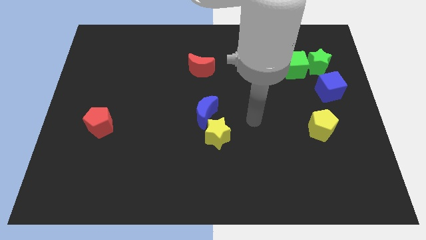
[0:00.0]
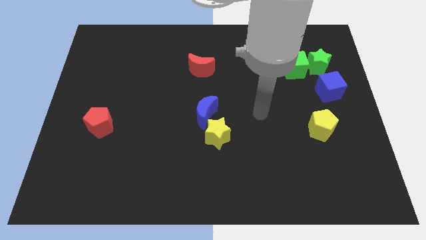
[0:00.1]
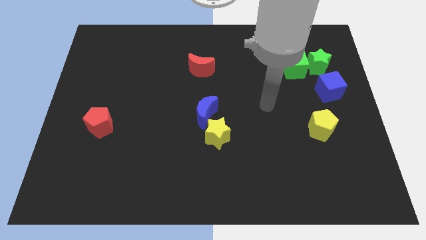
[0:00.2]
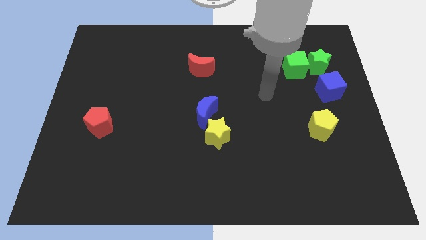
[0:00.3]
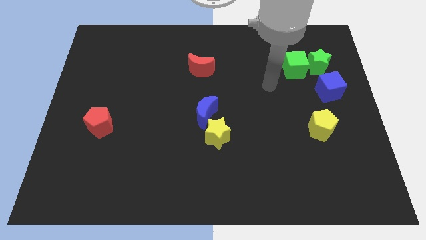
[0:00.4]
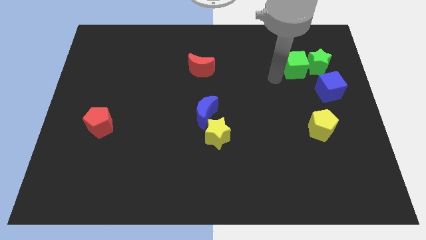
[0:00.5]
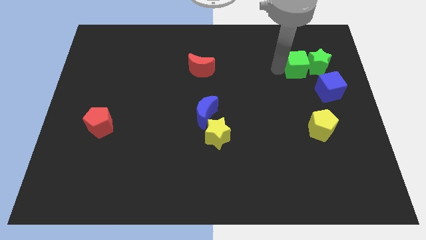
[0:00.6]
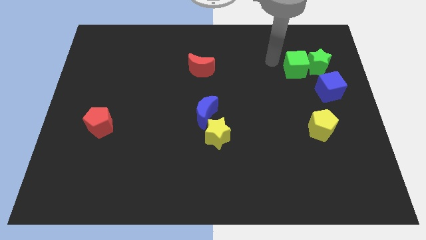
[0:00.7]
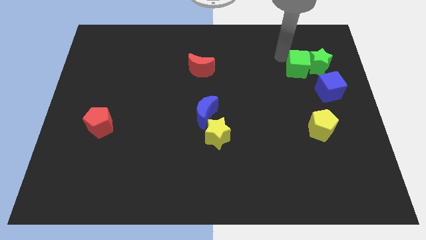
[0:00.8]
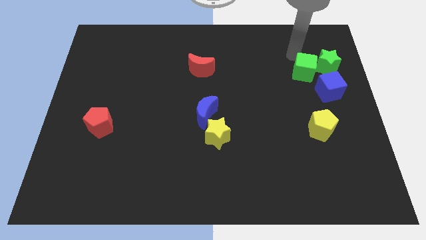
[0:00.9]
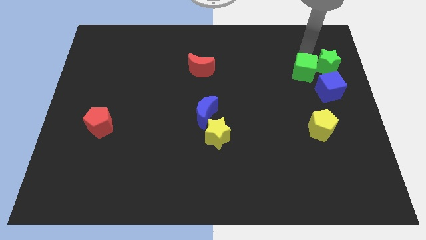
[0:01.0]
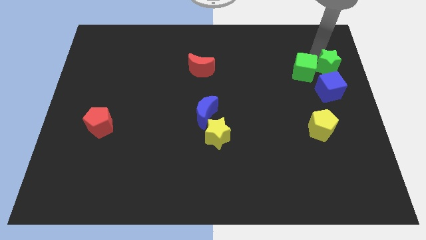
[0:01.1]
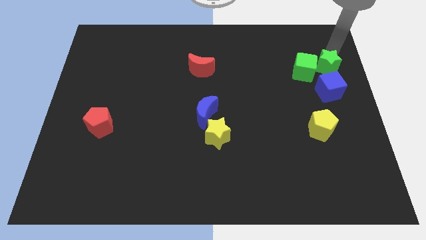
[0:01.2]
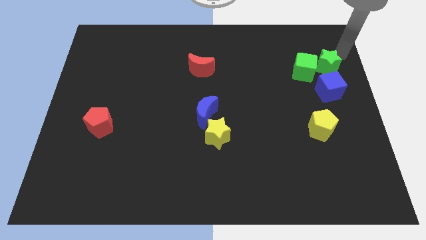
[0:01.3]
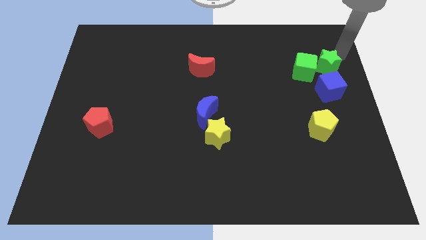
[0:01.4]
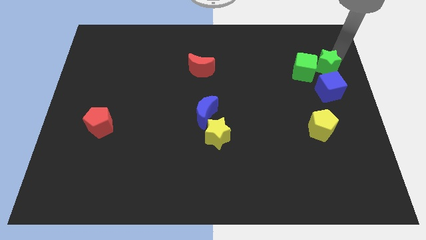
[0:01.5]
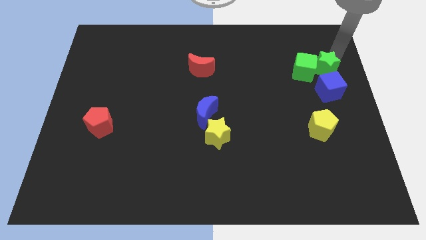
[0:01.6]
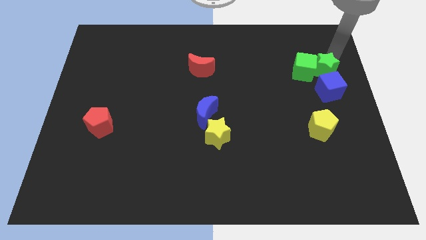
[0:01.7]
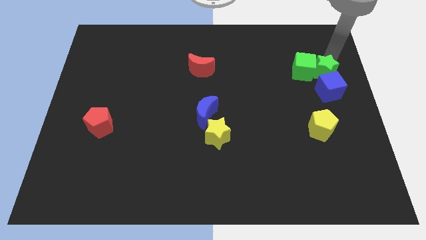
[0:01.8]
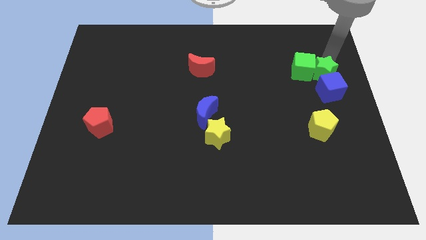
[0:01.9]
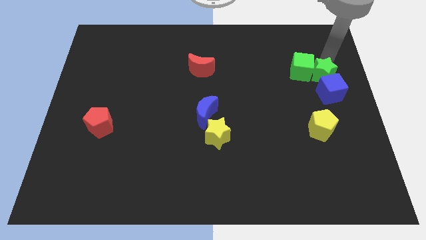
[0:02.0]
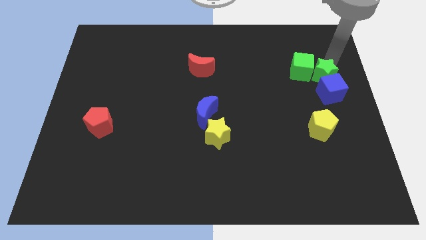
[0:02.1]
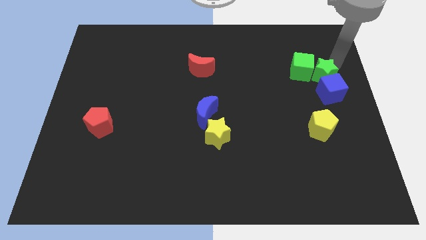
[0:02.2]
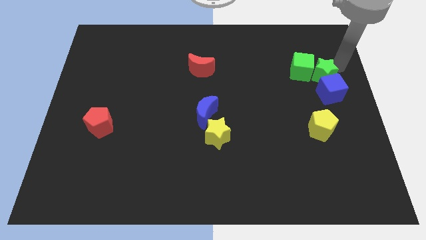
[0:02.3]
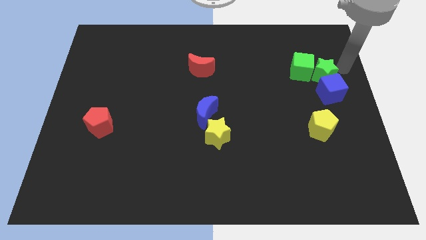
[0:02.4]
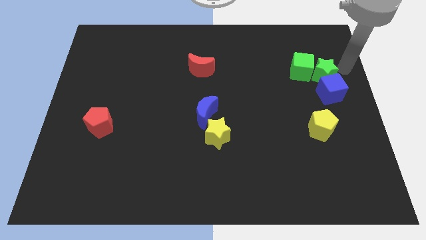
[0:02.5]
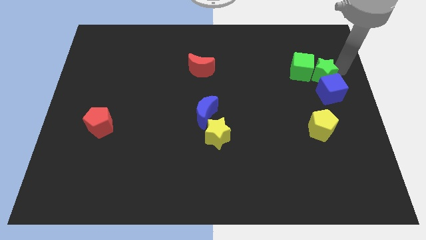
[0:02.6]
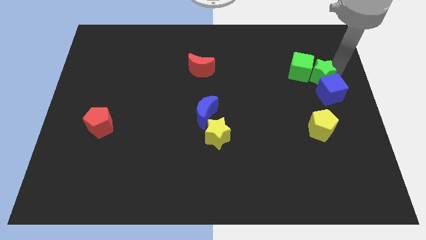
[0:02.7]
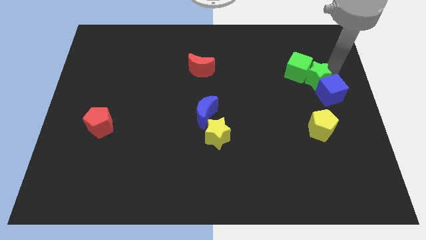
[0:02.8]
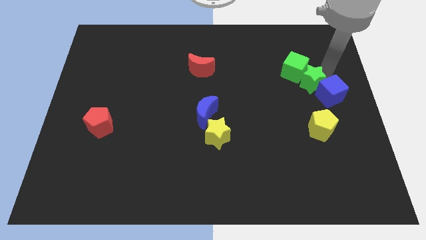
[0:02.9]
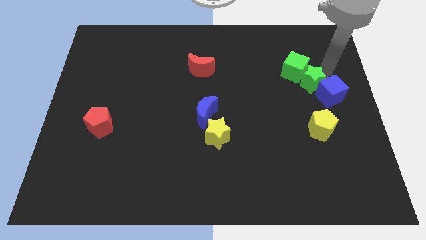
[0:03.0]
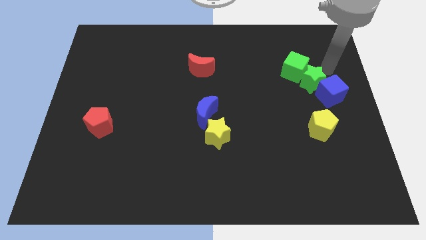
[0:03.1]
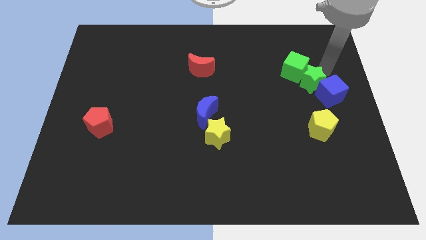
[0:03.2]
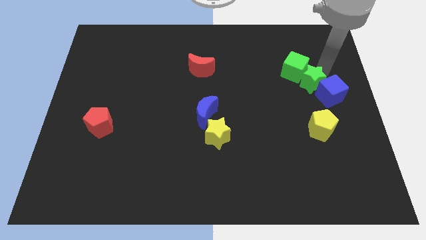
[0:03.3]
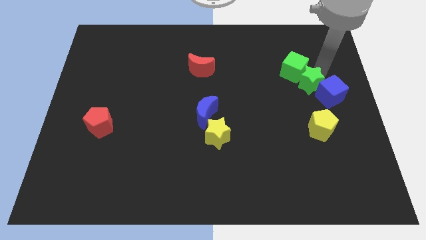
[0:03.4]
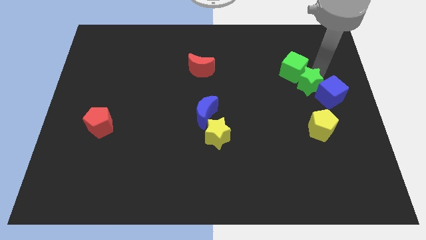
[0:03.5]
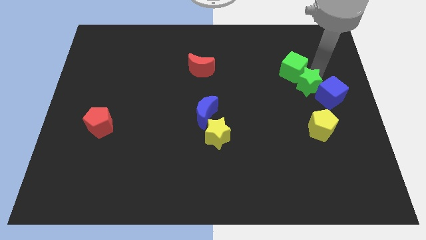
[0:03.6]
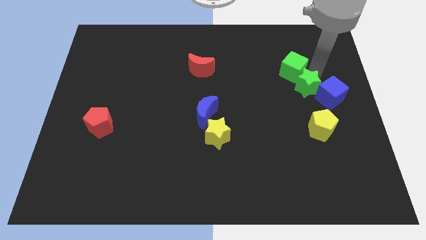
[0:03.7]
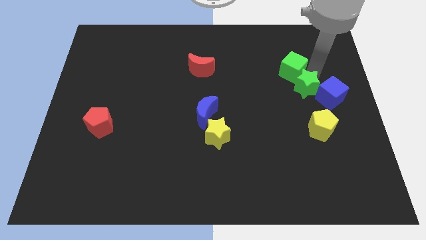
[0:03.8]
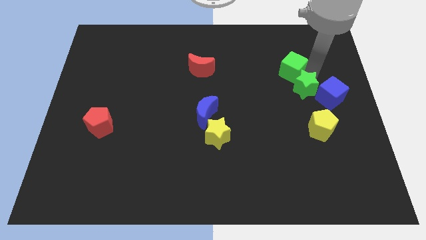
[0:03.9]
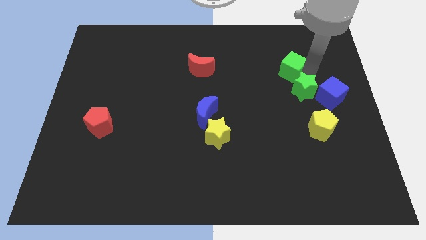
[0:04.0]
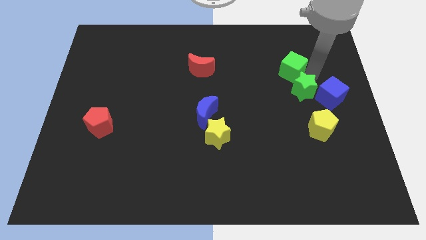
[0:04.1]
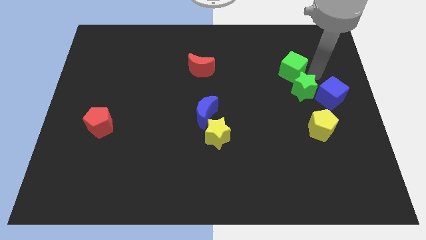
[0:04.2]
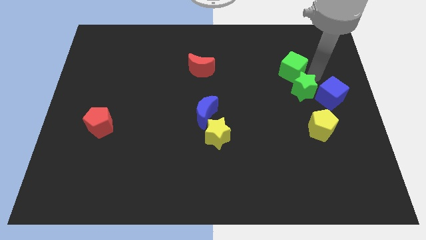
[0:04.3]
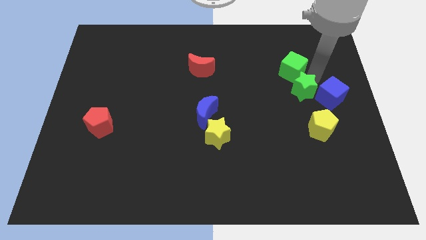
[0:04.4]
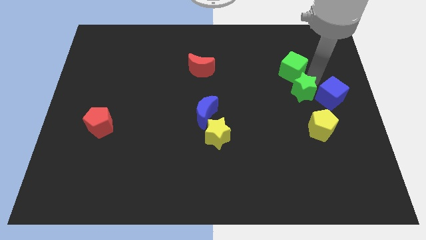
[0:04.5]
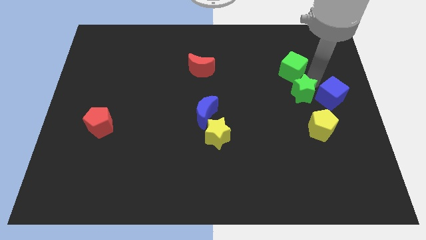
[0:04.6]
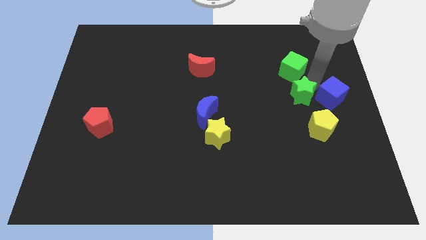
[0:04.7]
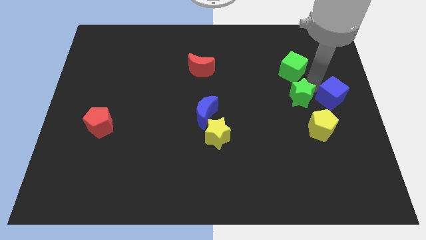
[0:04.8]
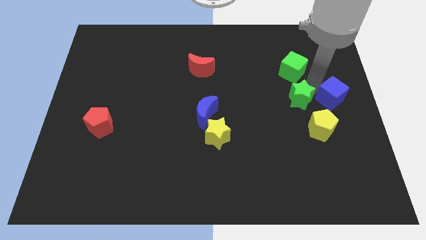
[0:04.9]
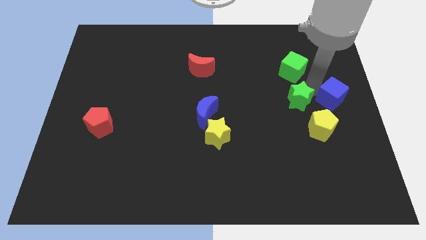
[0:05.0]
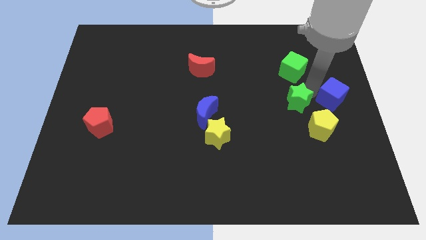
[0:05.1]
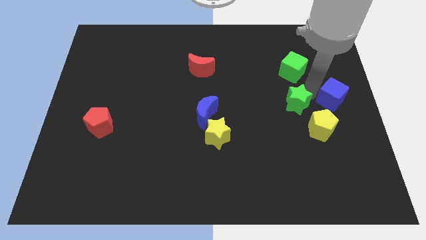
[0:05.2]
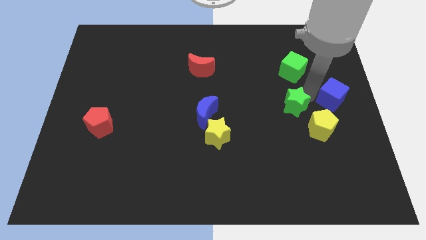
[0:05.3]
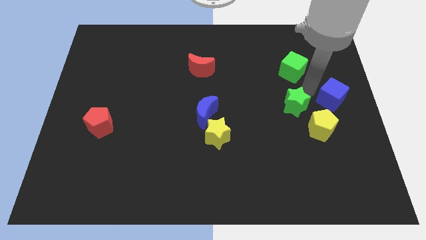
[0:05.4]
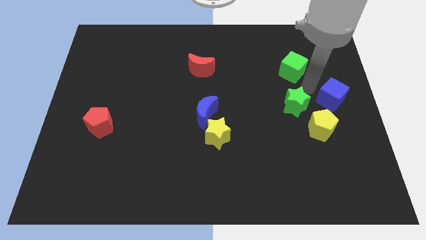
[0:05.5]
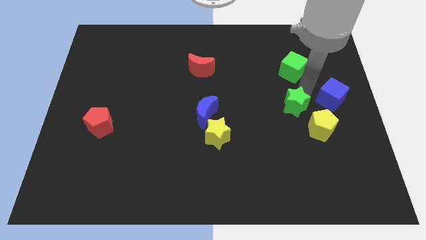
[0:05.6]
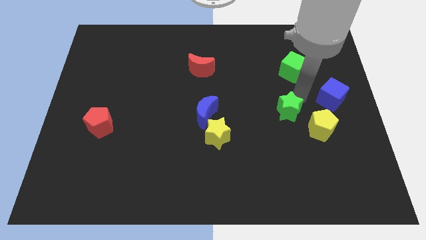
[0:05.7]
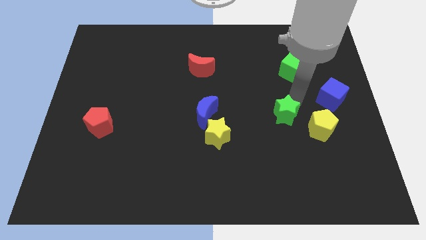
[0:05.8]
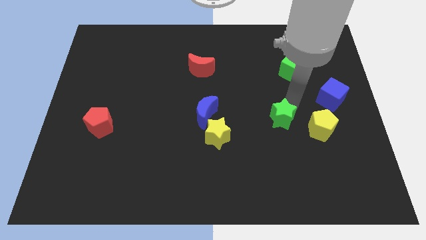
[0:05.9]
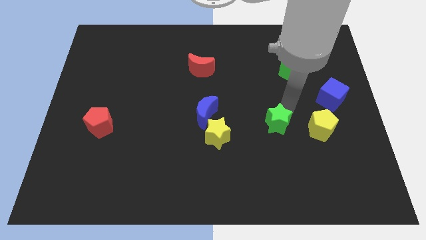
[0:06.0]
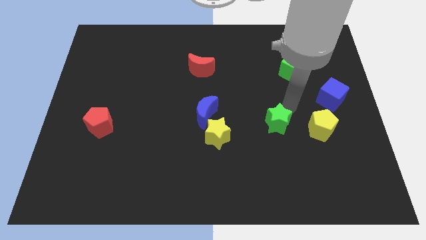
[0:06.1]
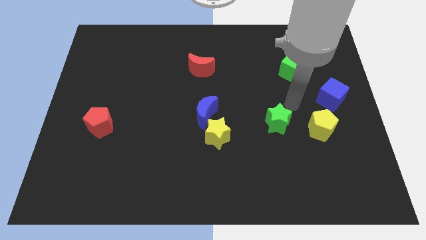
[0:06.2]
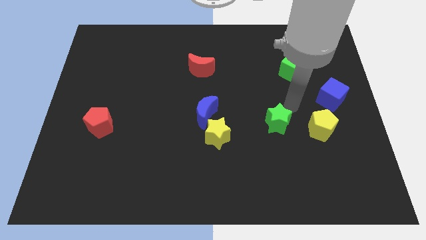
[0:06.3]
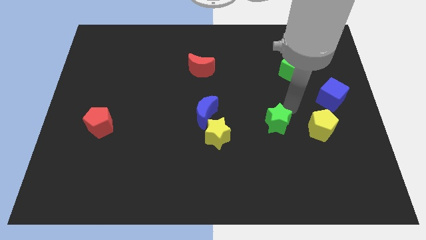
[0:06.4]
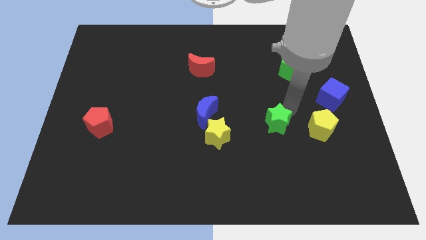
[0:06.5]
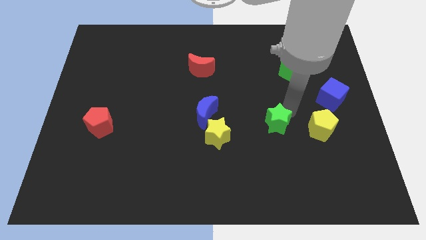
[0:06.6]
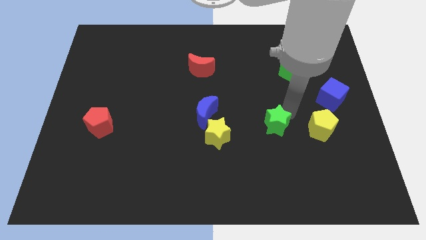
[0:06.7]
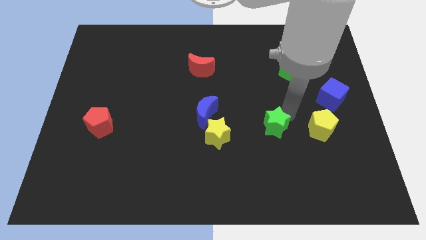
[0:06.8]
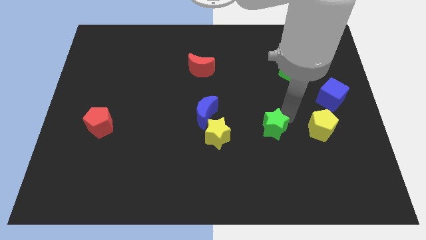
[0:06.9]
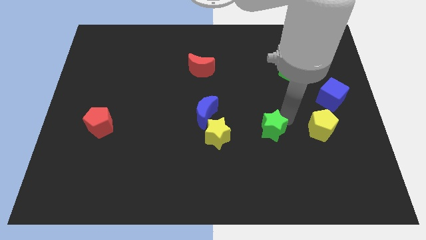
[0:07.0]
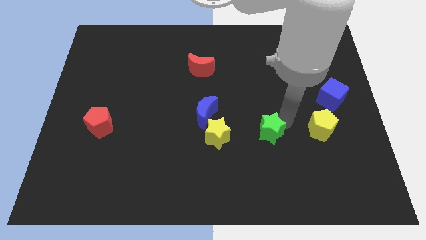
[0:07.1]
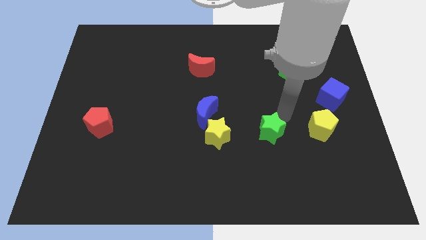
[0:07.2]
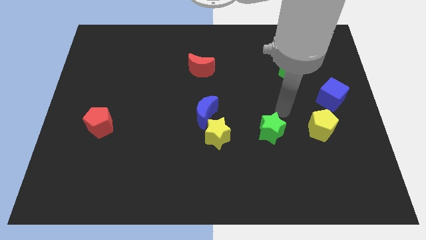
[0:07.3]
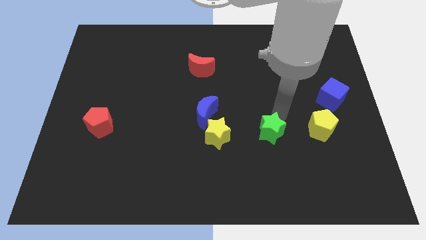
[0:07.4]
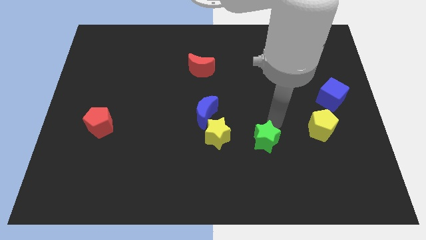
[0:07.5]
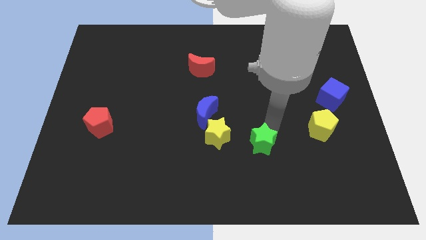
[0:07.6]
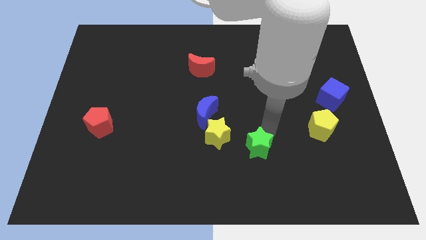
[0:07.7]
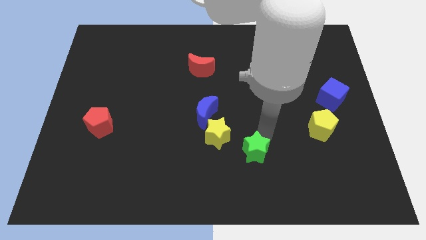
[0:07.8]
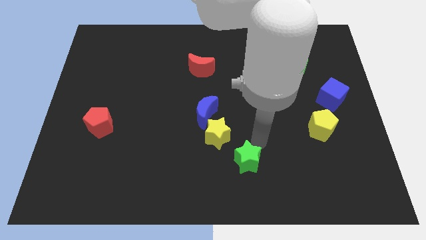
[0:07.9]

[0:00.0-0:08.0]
move the green star to the bottom
